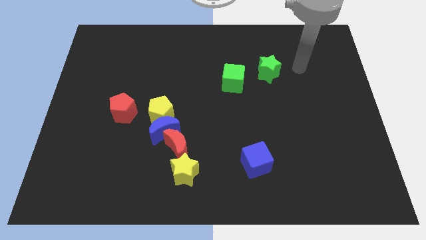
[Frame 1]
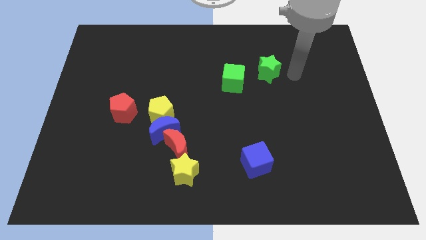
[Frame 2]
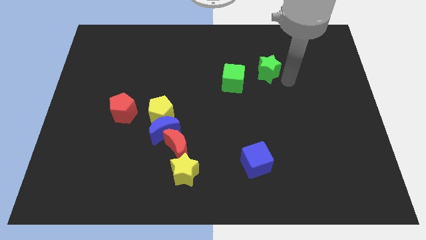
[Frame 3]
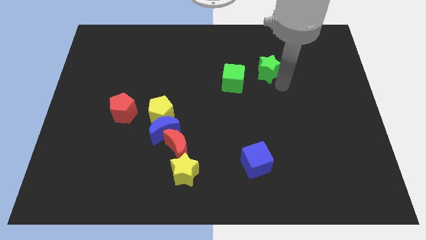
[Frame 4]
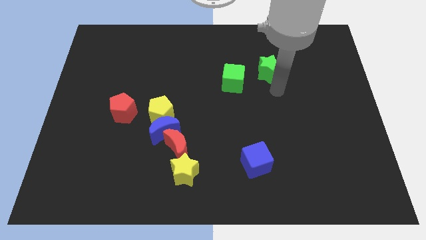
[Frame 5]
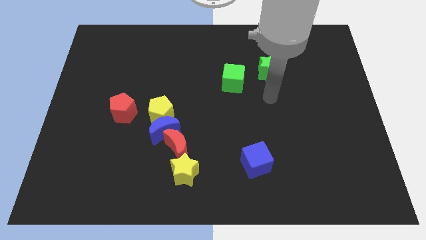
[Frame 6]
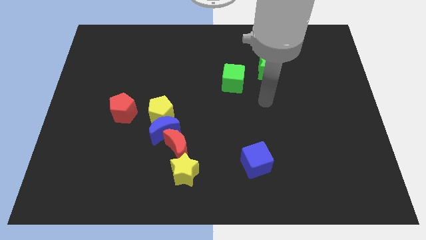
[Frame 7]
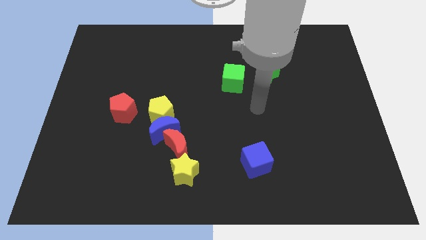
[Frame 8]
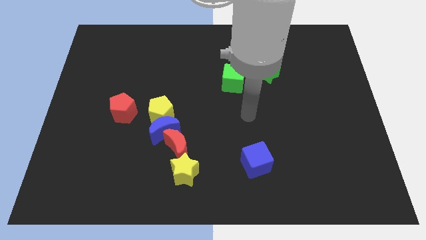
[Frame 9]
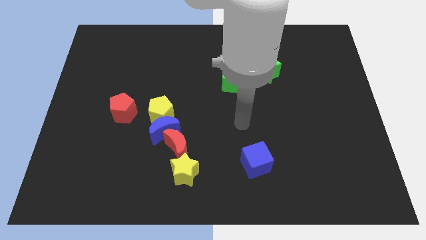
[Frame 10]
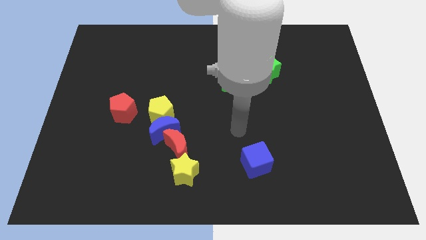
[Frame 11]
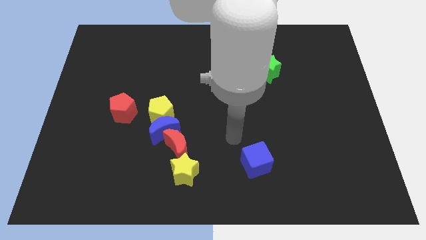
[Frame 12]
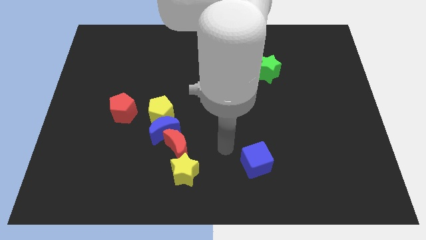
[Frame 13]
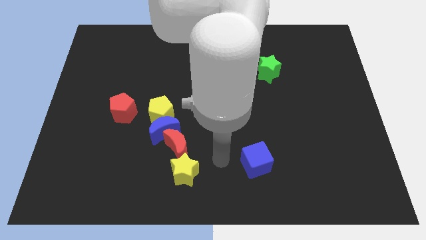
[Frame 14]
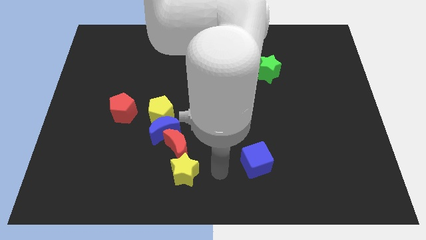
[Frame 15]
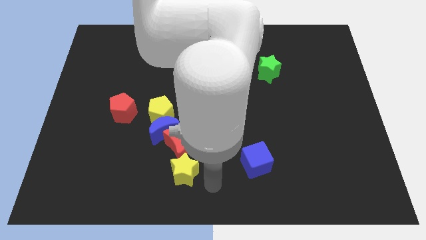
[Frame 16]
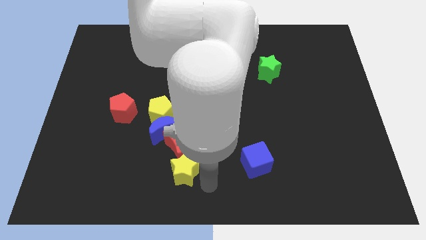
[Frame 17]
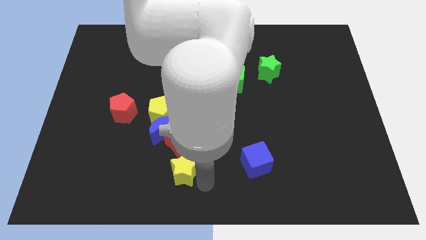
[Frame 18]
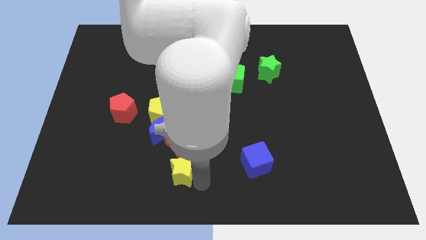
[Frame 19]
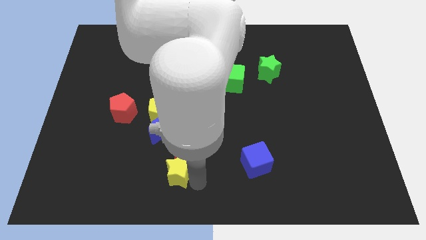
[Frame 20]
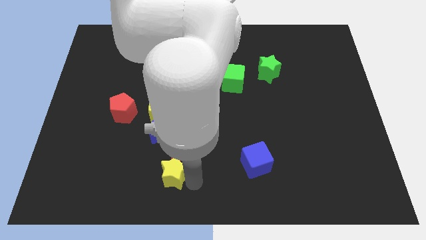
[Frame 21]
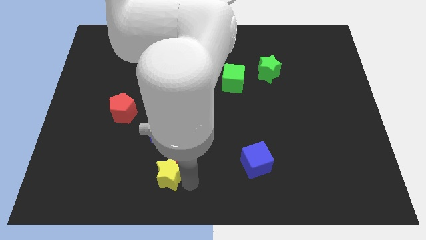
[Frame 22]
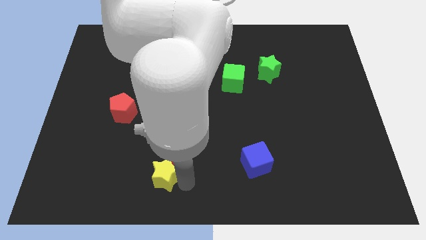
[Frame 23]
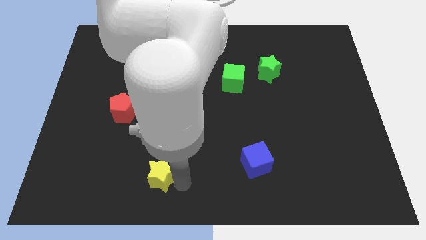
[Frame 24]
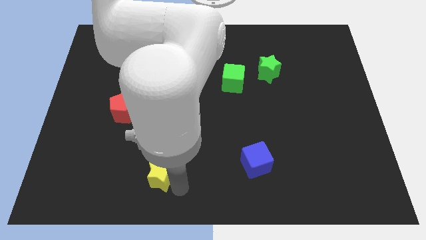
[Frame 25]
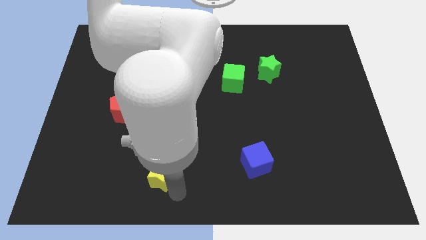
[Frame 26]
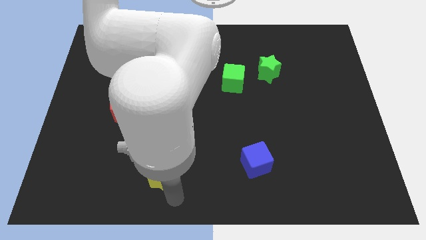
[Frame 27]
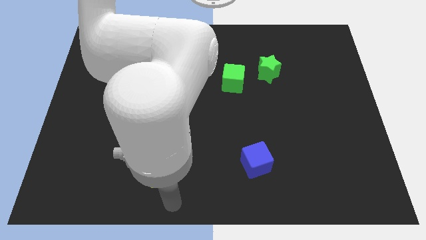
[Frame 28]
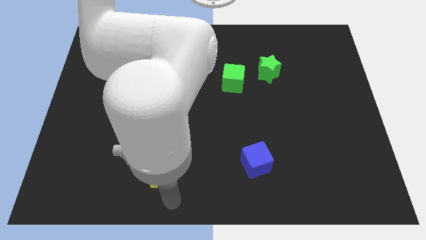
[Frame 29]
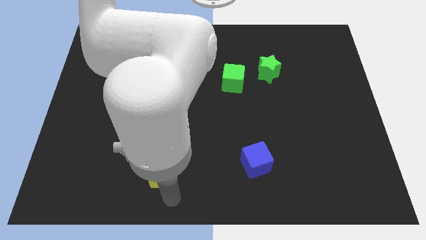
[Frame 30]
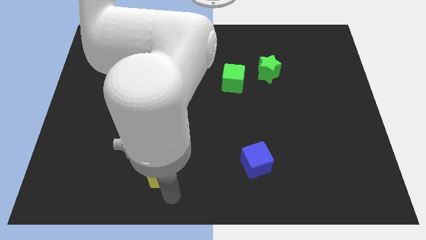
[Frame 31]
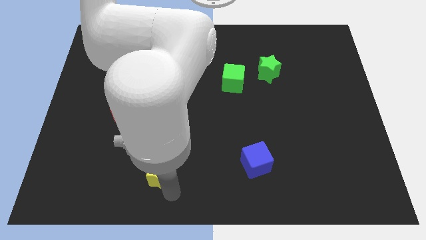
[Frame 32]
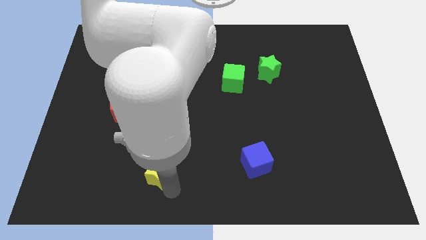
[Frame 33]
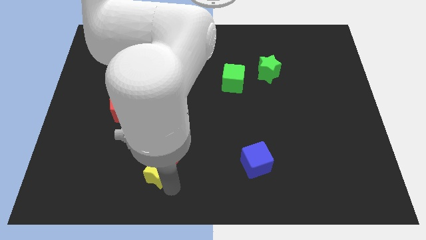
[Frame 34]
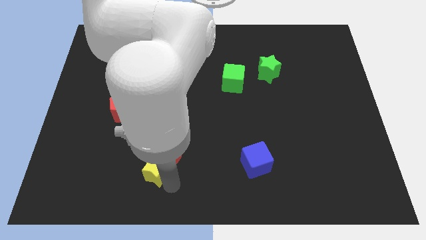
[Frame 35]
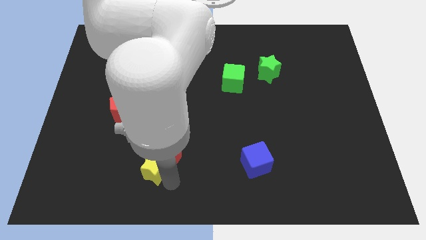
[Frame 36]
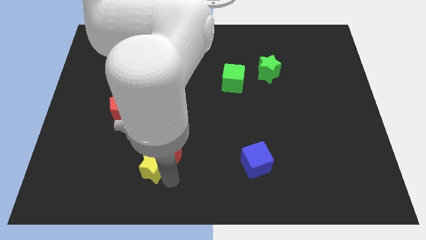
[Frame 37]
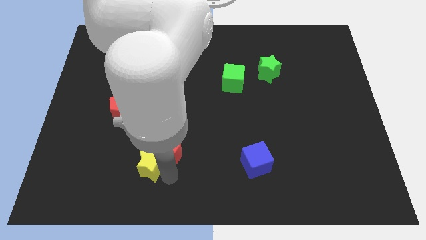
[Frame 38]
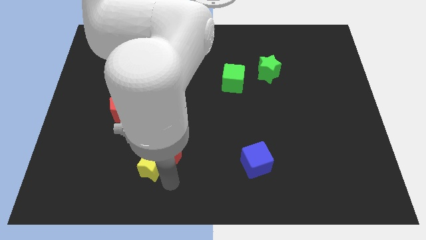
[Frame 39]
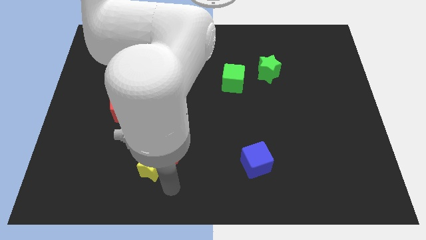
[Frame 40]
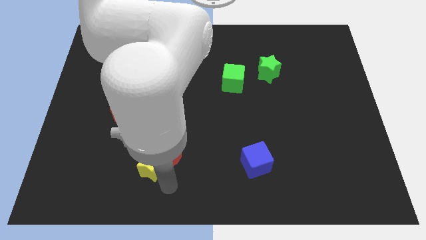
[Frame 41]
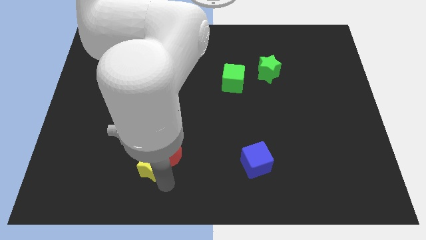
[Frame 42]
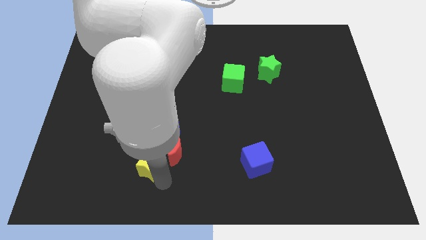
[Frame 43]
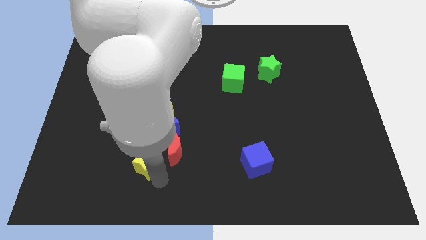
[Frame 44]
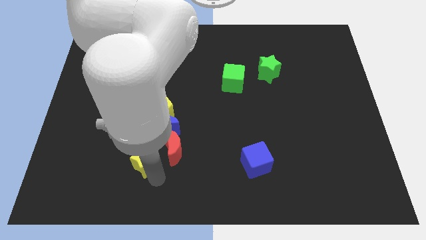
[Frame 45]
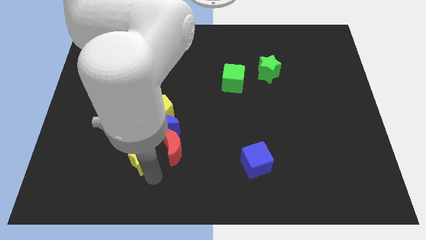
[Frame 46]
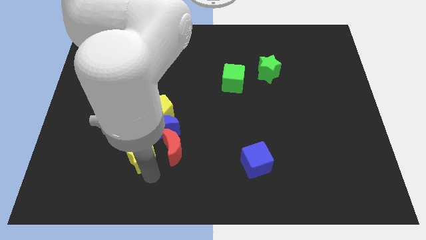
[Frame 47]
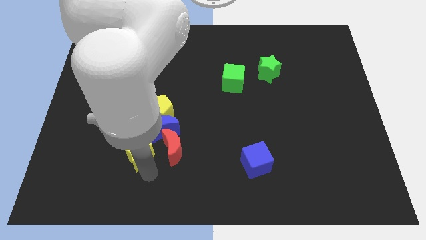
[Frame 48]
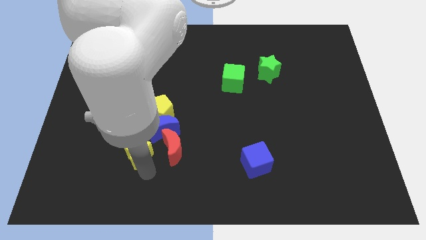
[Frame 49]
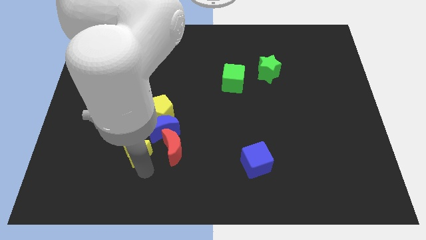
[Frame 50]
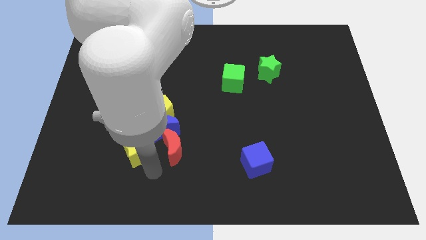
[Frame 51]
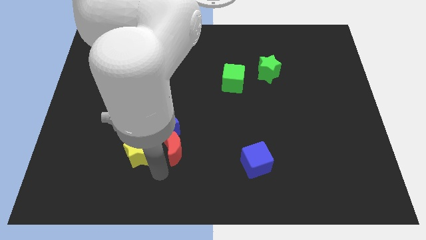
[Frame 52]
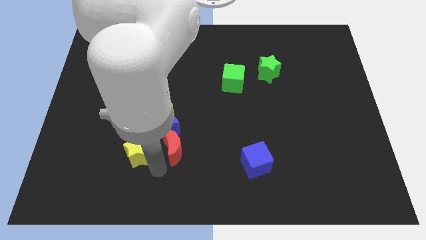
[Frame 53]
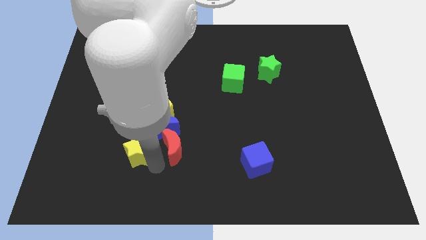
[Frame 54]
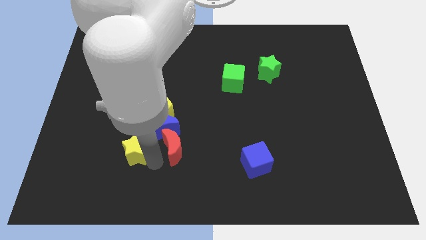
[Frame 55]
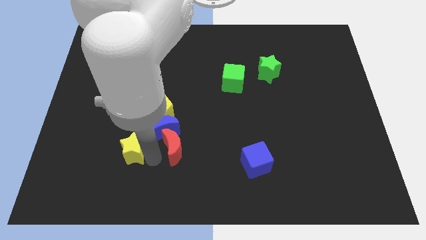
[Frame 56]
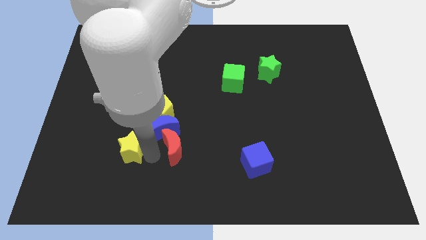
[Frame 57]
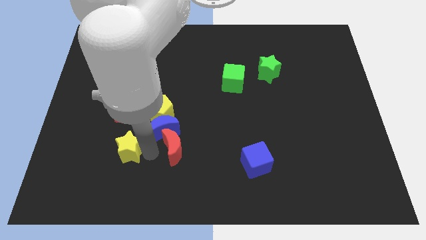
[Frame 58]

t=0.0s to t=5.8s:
move the yellow star just left of the blue moon

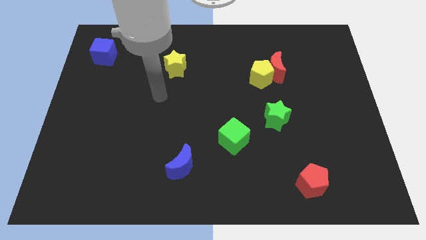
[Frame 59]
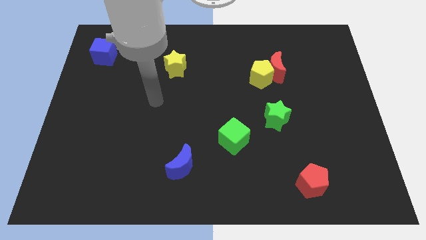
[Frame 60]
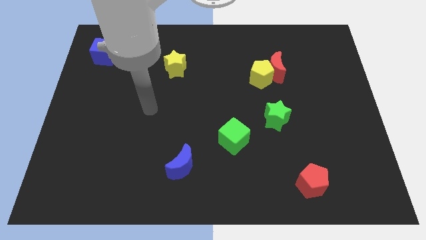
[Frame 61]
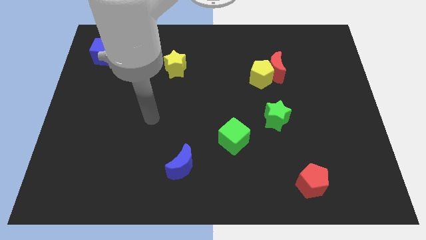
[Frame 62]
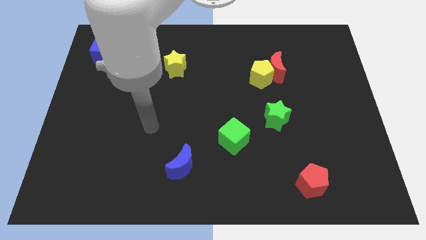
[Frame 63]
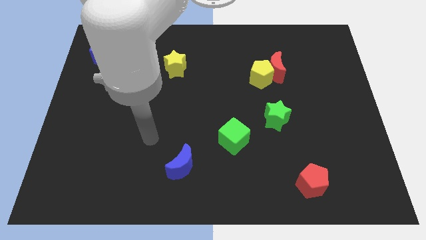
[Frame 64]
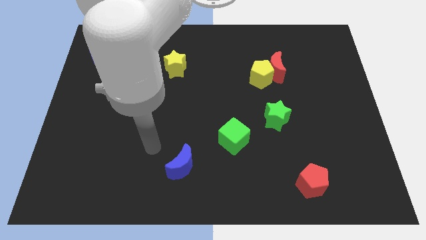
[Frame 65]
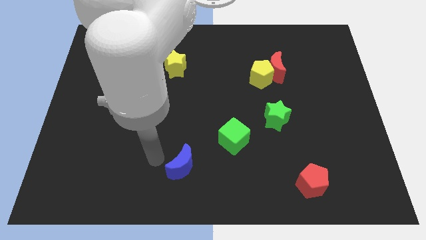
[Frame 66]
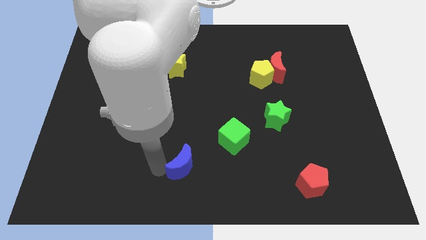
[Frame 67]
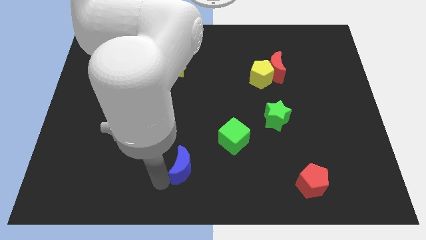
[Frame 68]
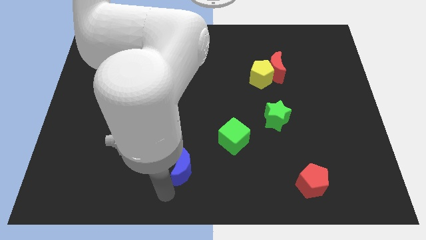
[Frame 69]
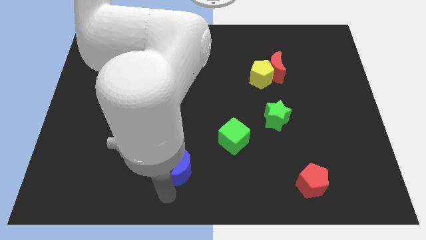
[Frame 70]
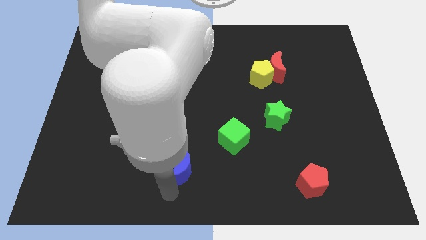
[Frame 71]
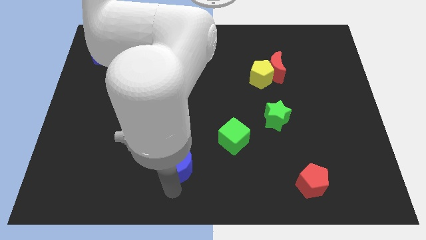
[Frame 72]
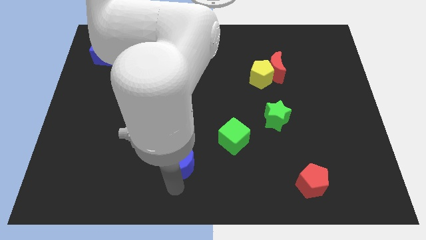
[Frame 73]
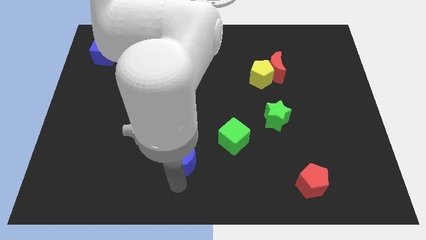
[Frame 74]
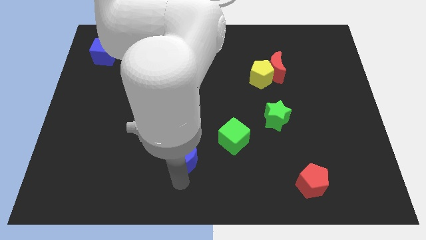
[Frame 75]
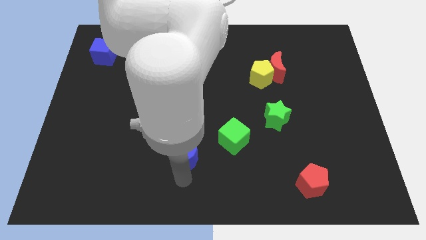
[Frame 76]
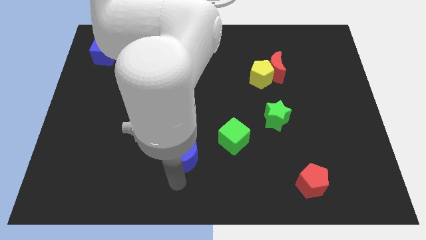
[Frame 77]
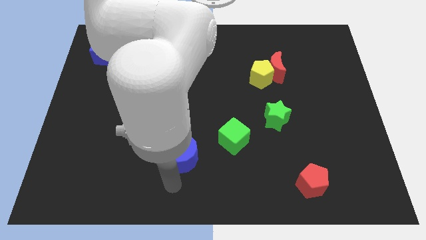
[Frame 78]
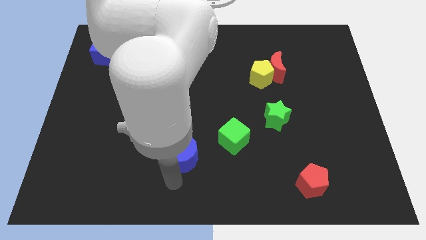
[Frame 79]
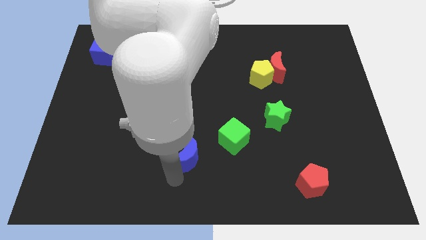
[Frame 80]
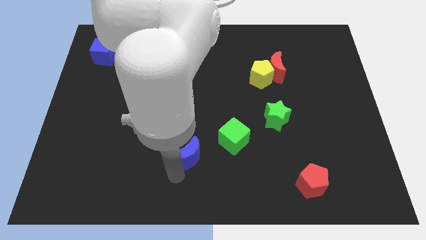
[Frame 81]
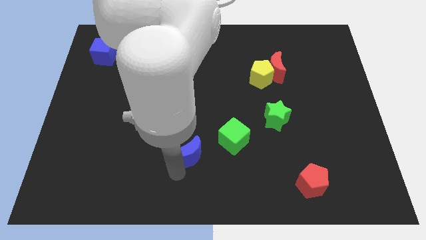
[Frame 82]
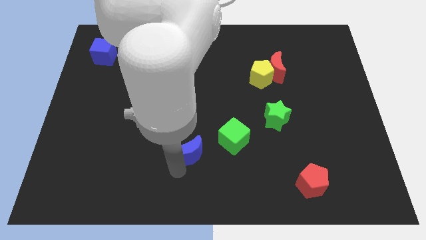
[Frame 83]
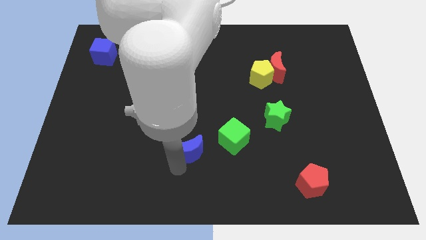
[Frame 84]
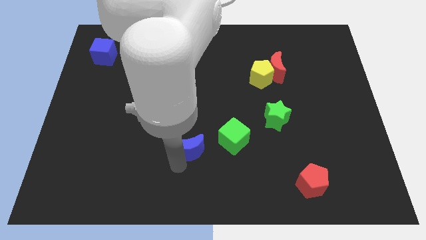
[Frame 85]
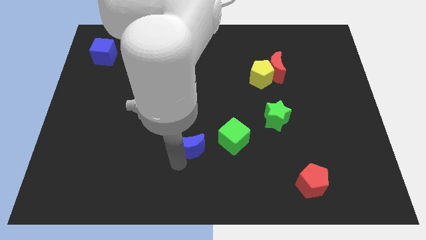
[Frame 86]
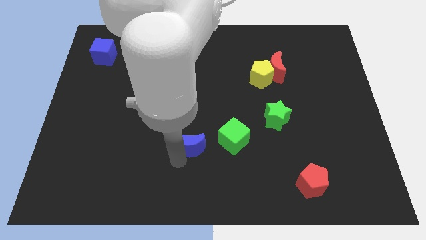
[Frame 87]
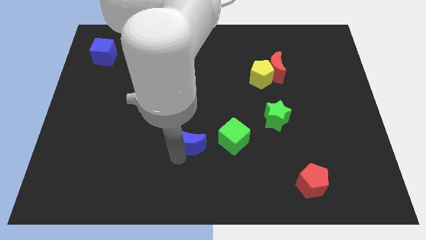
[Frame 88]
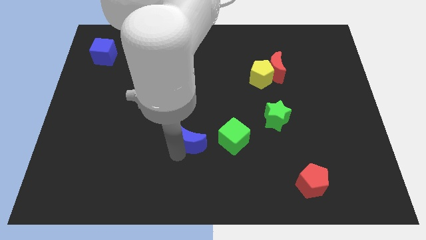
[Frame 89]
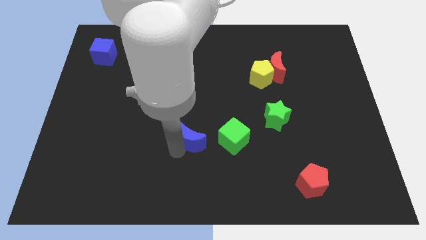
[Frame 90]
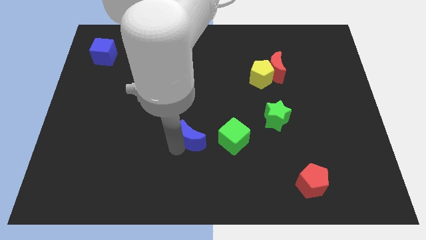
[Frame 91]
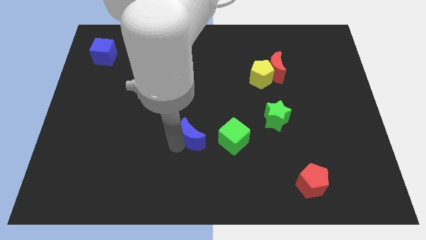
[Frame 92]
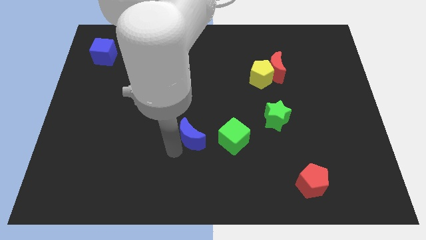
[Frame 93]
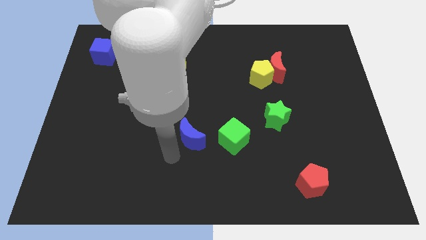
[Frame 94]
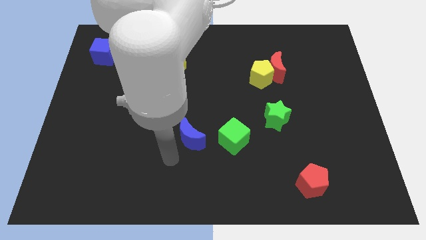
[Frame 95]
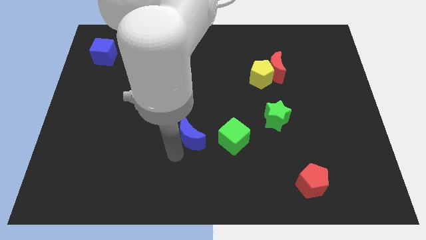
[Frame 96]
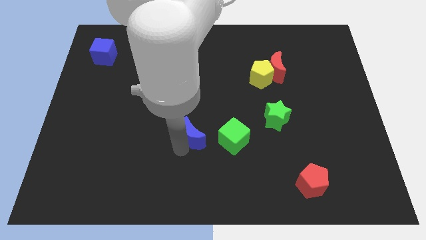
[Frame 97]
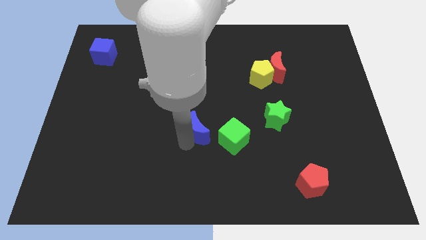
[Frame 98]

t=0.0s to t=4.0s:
put the blue moon diagonally up and to the left of the green cube
